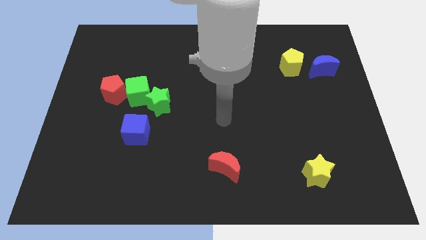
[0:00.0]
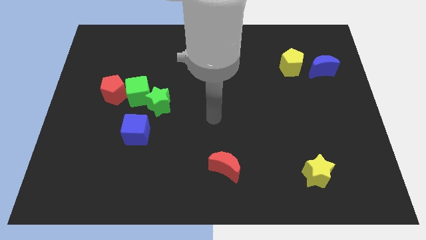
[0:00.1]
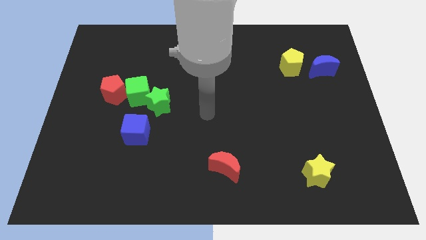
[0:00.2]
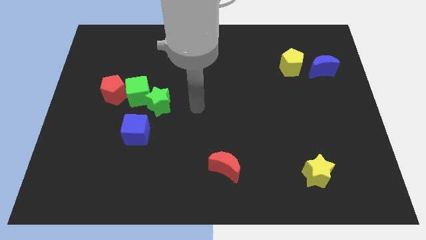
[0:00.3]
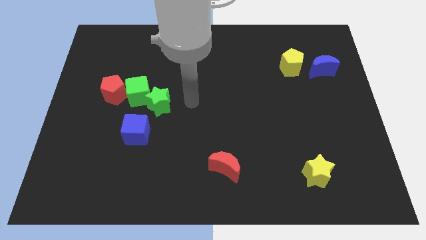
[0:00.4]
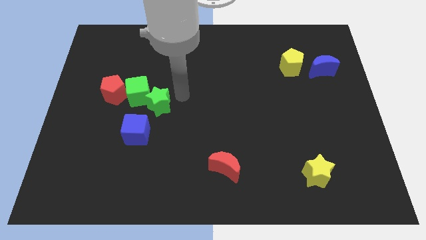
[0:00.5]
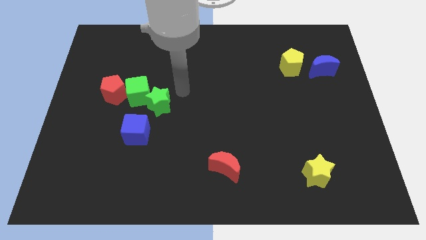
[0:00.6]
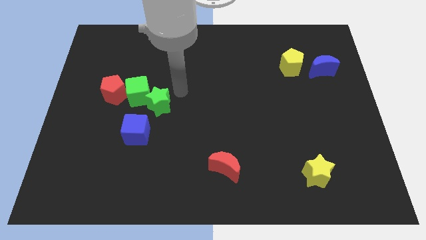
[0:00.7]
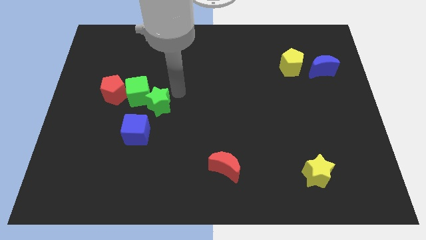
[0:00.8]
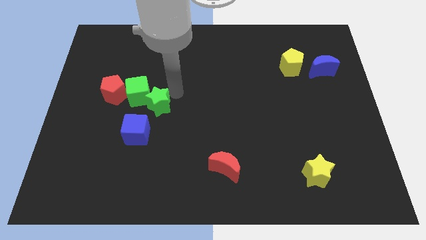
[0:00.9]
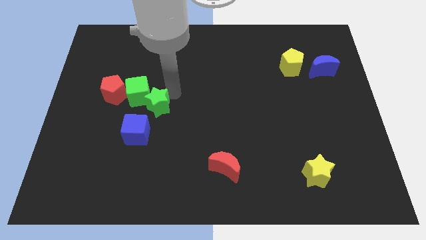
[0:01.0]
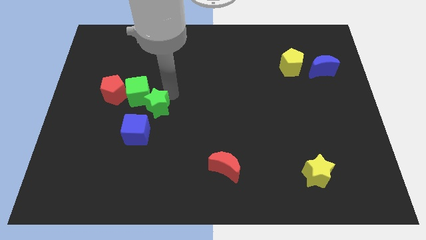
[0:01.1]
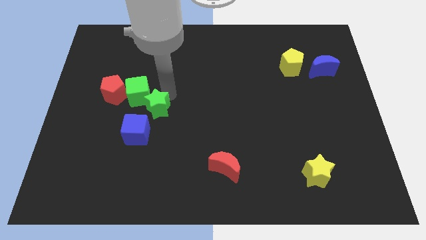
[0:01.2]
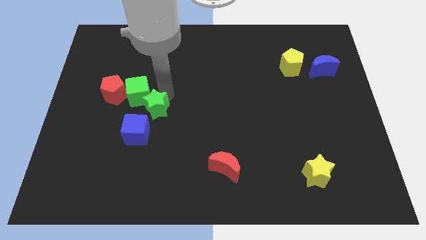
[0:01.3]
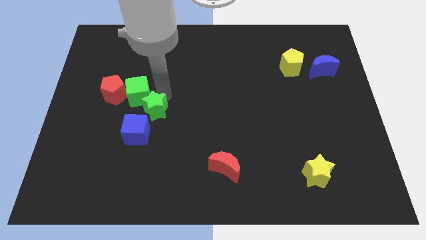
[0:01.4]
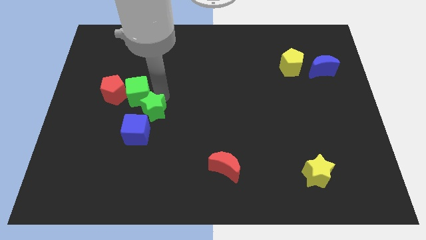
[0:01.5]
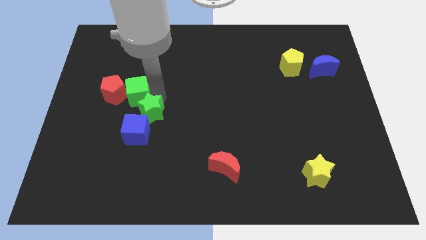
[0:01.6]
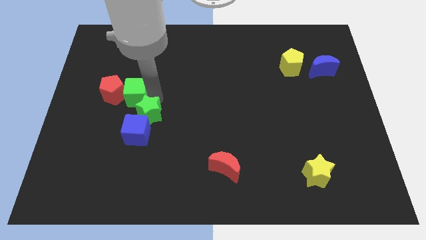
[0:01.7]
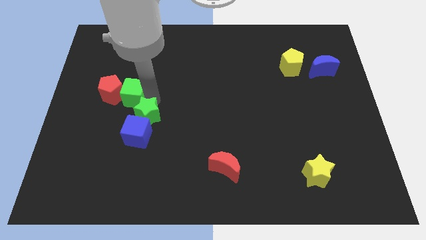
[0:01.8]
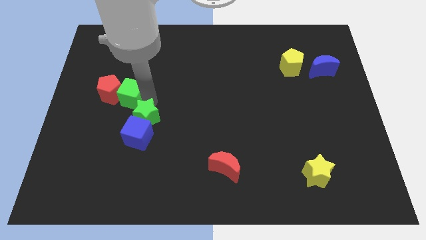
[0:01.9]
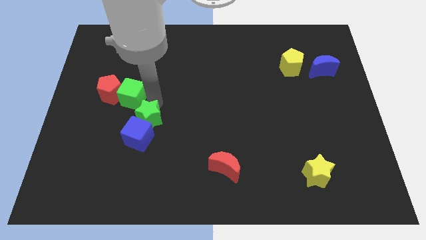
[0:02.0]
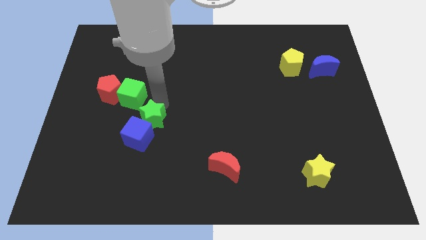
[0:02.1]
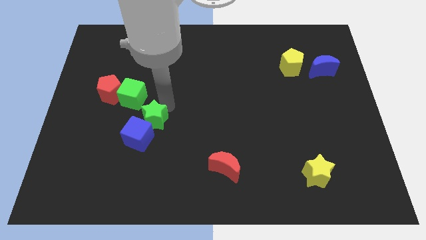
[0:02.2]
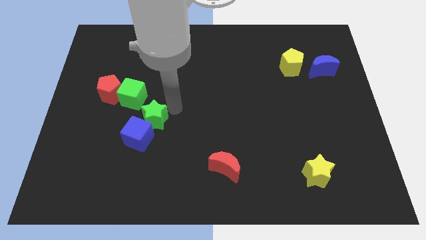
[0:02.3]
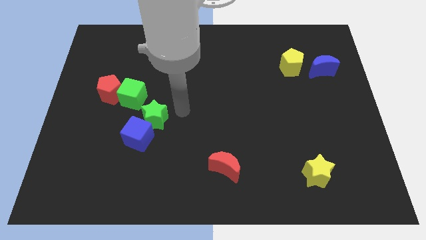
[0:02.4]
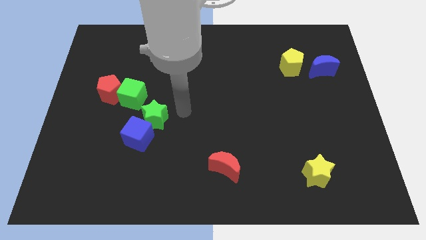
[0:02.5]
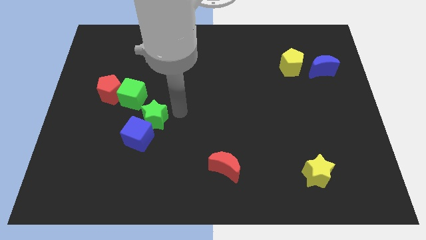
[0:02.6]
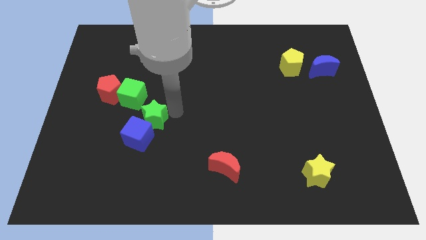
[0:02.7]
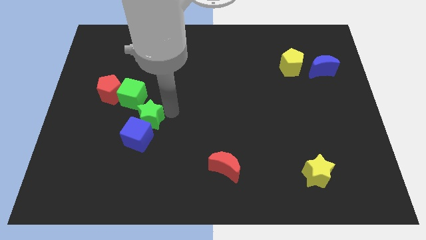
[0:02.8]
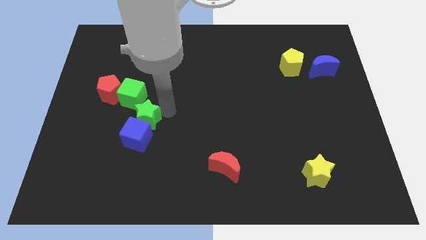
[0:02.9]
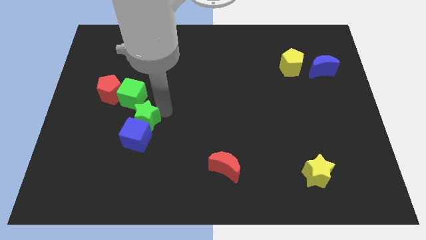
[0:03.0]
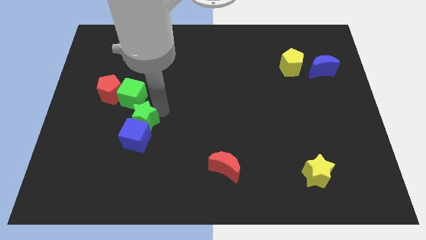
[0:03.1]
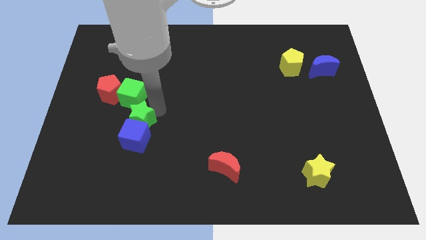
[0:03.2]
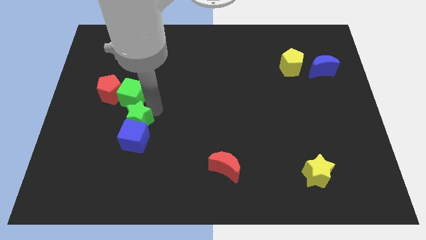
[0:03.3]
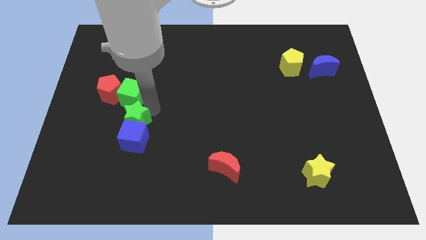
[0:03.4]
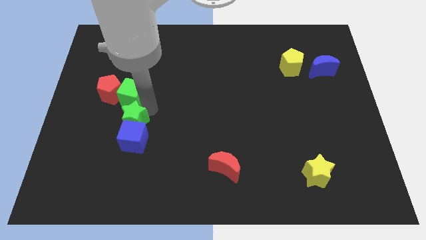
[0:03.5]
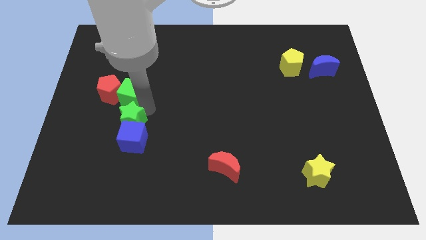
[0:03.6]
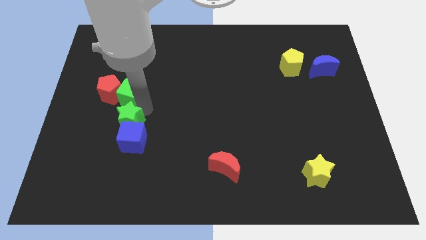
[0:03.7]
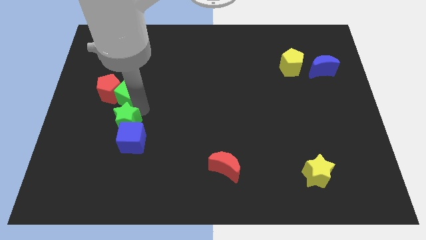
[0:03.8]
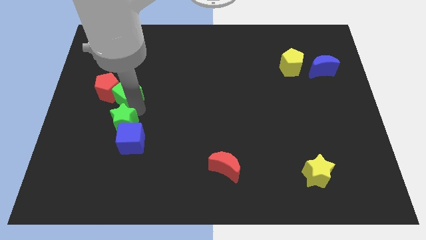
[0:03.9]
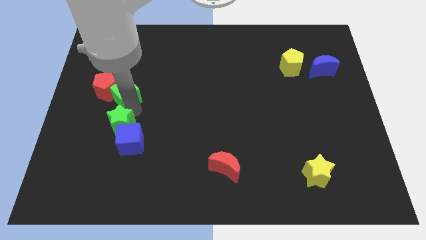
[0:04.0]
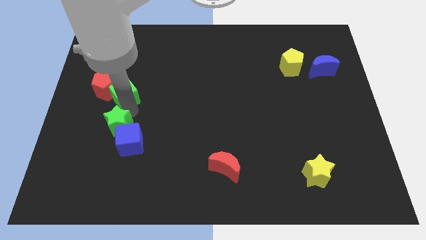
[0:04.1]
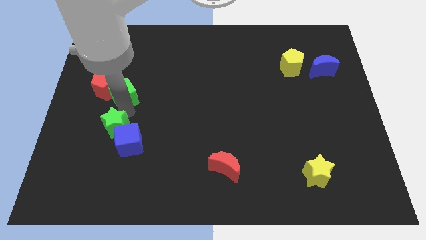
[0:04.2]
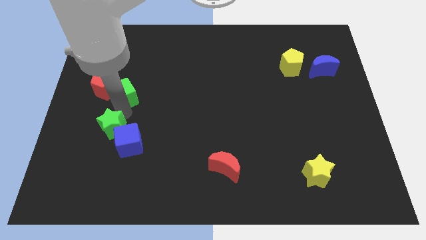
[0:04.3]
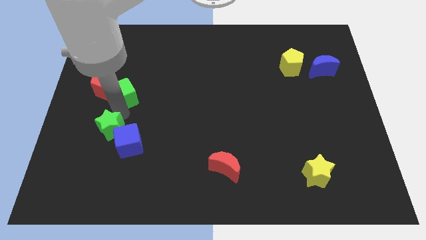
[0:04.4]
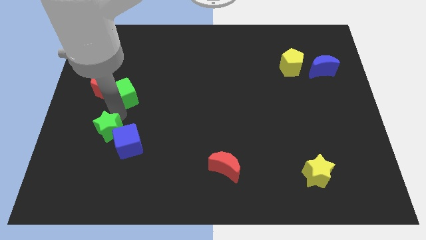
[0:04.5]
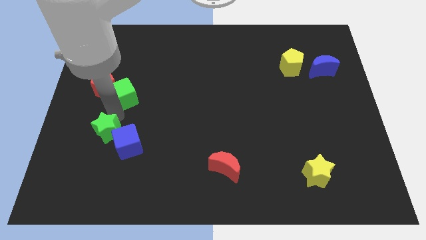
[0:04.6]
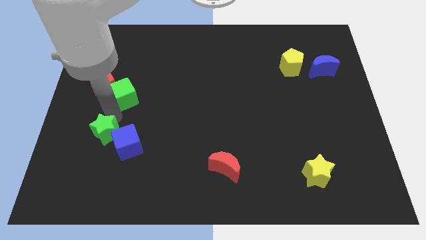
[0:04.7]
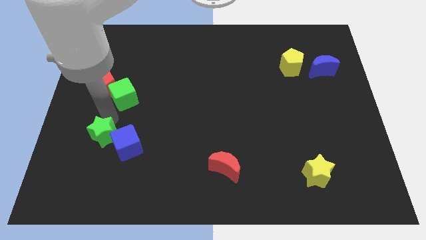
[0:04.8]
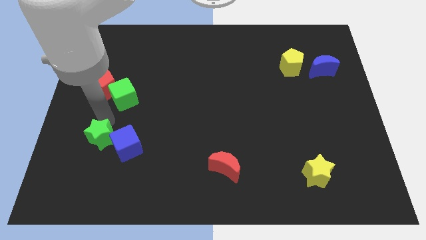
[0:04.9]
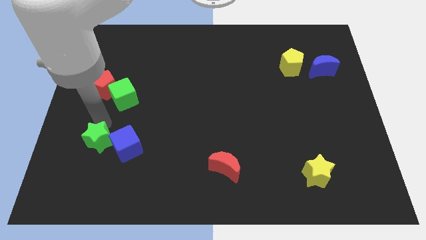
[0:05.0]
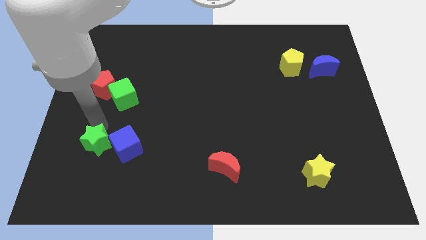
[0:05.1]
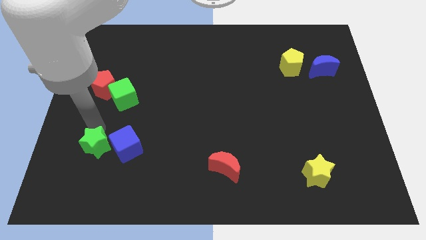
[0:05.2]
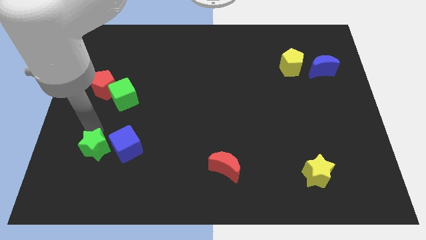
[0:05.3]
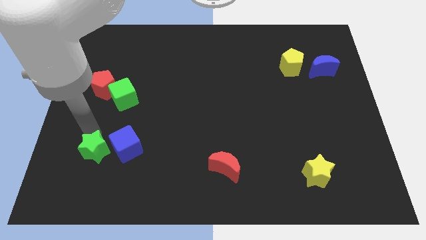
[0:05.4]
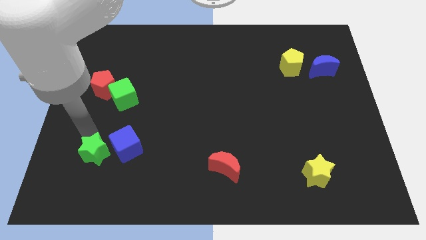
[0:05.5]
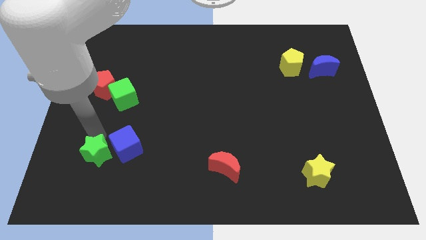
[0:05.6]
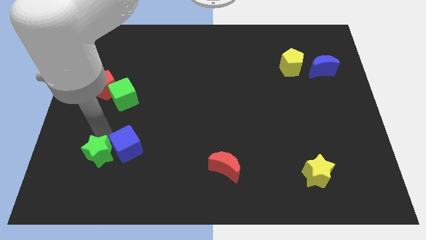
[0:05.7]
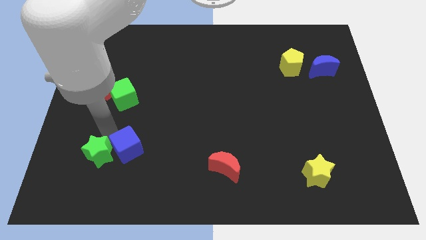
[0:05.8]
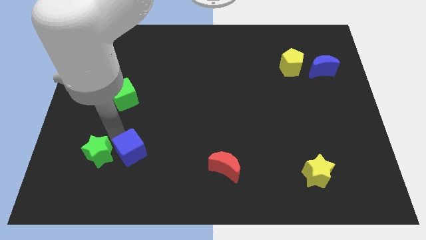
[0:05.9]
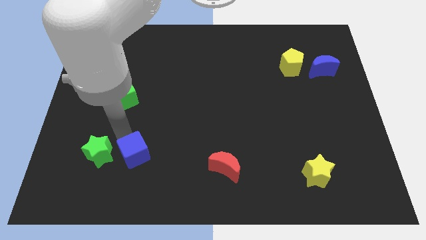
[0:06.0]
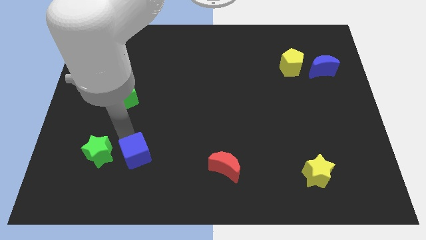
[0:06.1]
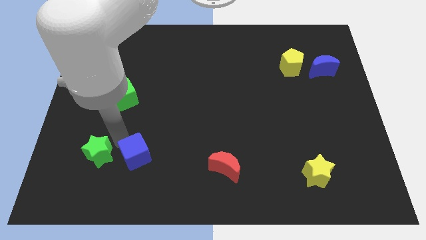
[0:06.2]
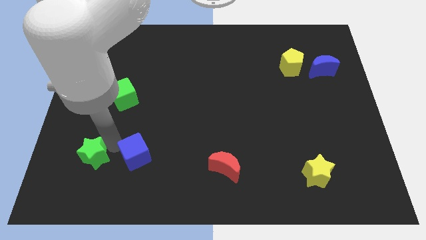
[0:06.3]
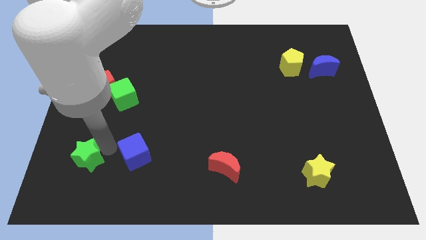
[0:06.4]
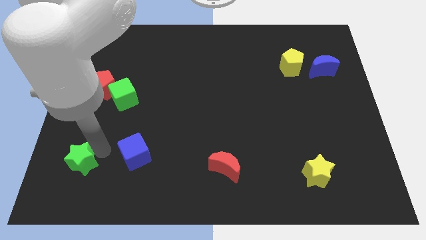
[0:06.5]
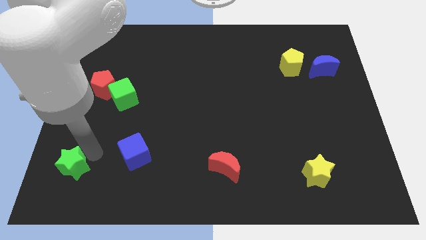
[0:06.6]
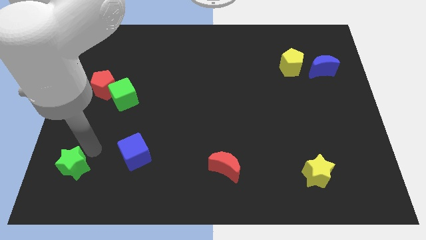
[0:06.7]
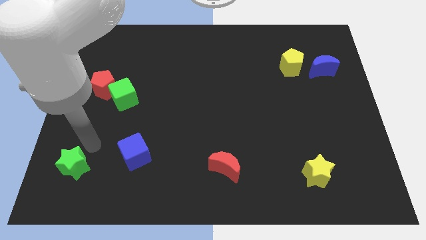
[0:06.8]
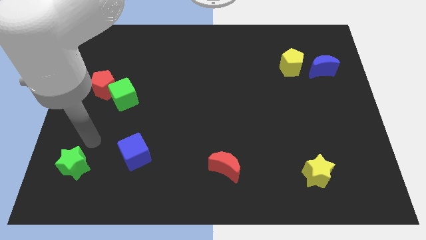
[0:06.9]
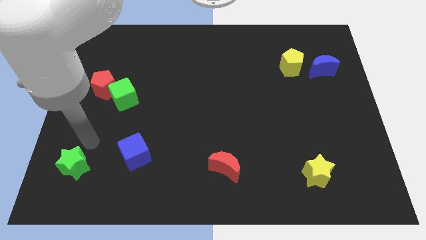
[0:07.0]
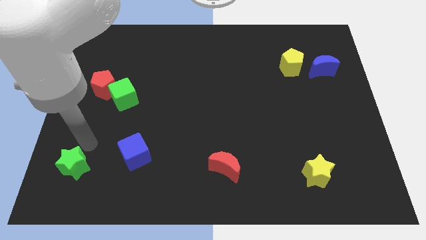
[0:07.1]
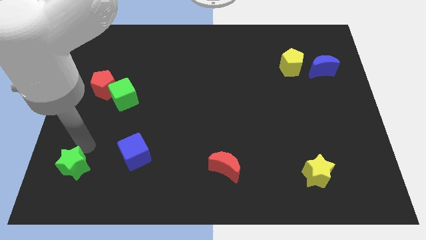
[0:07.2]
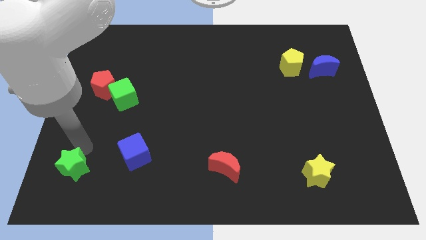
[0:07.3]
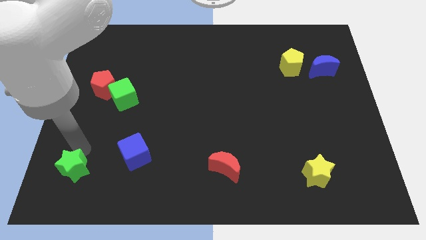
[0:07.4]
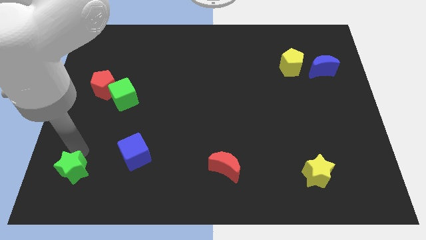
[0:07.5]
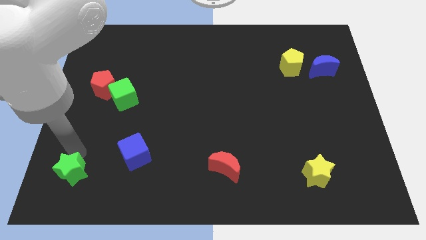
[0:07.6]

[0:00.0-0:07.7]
push the green star to the bottom left
